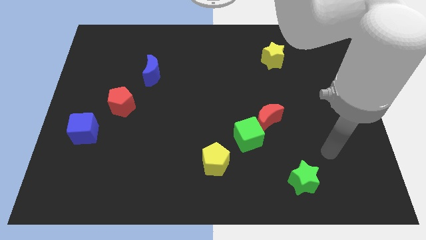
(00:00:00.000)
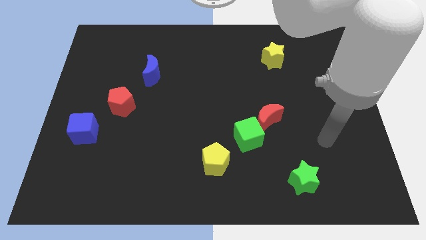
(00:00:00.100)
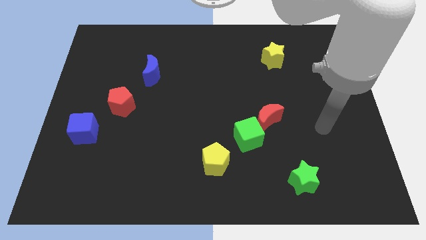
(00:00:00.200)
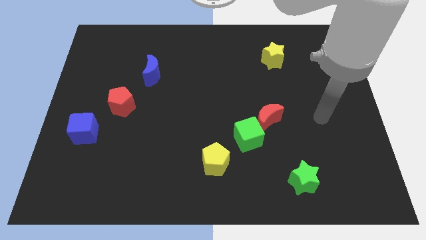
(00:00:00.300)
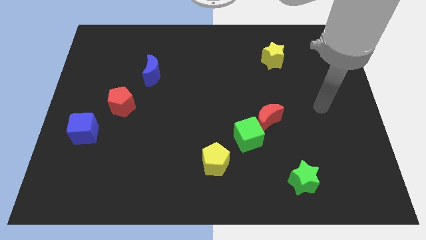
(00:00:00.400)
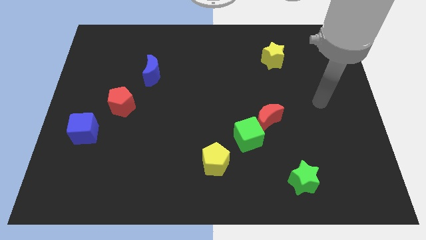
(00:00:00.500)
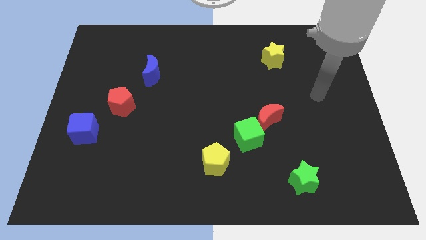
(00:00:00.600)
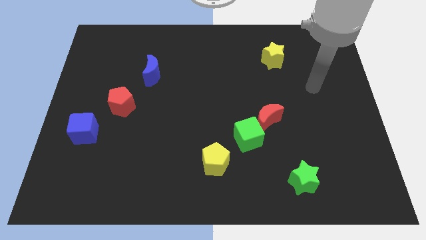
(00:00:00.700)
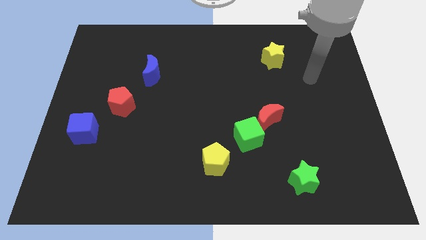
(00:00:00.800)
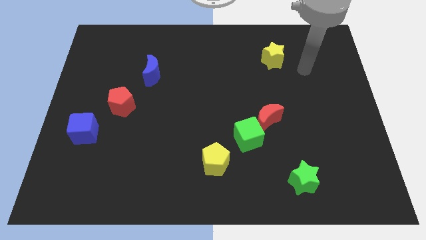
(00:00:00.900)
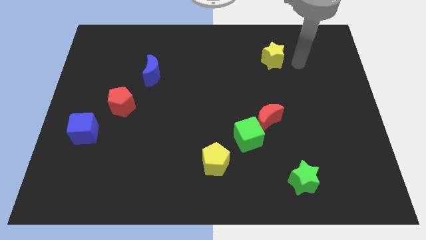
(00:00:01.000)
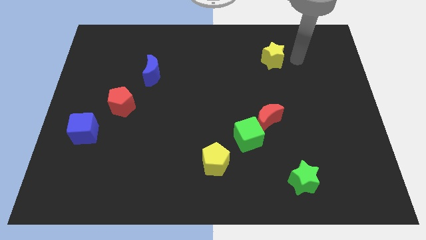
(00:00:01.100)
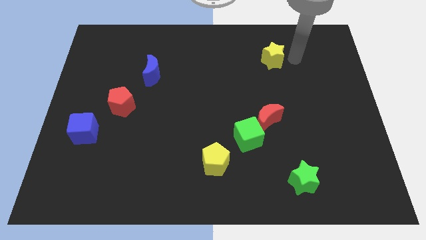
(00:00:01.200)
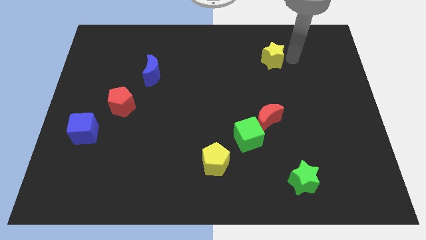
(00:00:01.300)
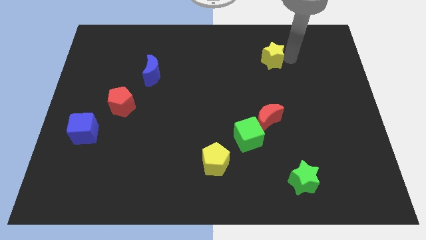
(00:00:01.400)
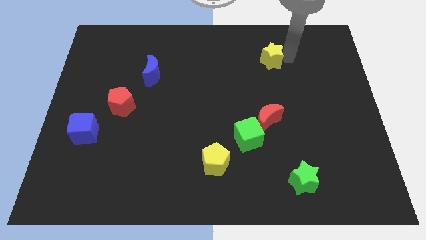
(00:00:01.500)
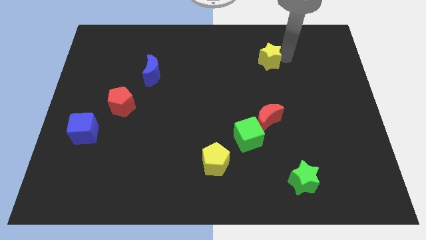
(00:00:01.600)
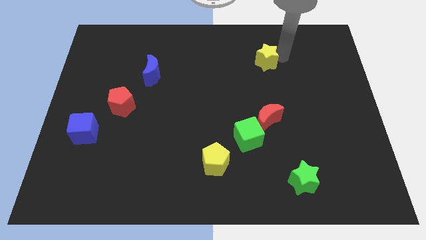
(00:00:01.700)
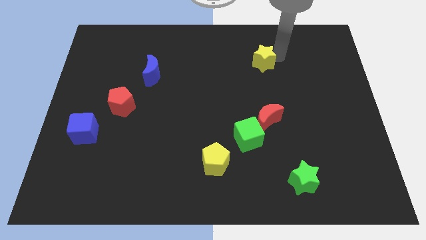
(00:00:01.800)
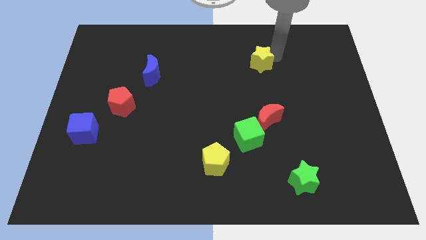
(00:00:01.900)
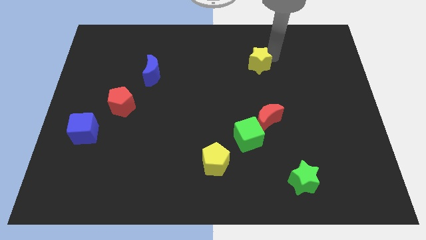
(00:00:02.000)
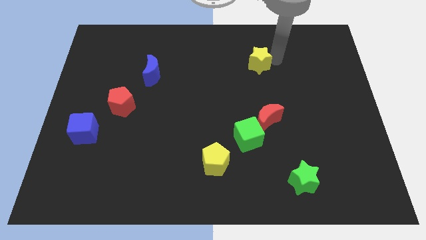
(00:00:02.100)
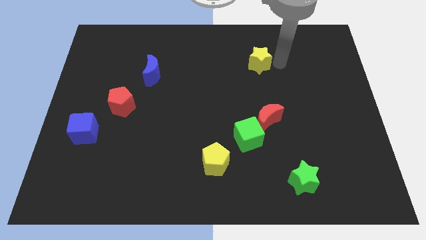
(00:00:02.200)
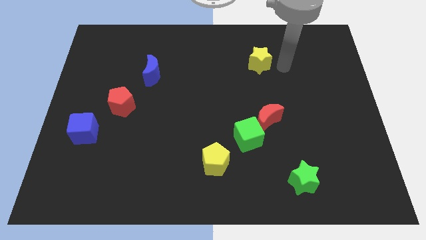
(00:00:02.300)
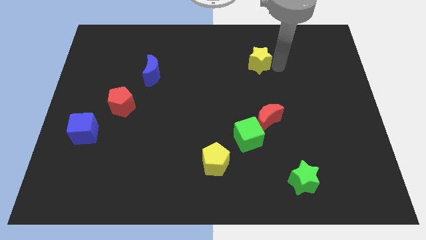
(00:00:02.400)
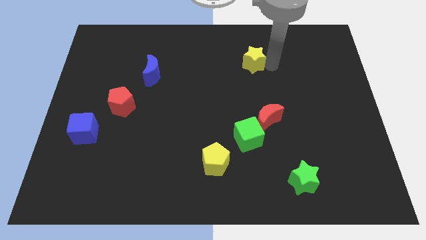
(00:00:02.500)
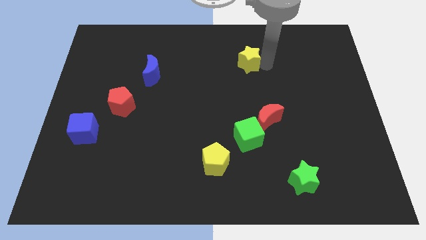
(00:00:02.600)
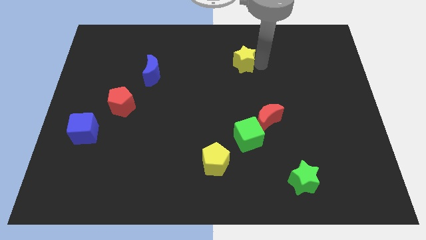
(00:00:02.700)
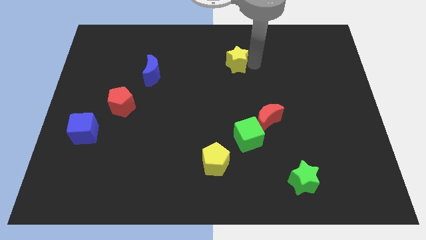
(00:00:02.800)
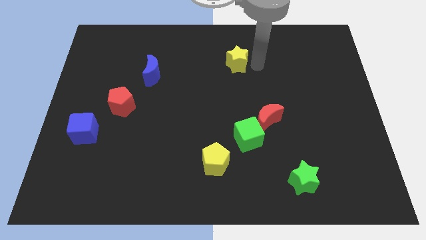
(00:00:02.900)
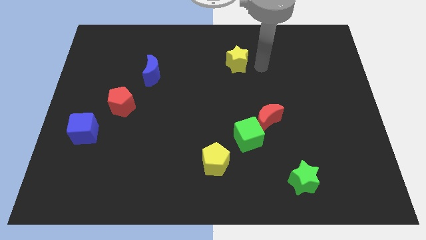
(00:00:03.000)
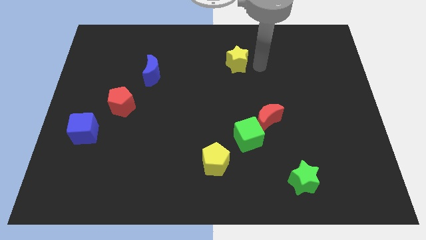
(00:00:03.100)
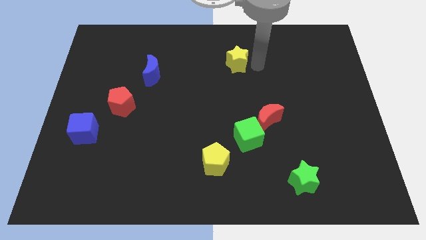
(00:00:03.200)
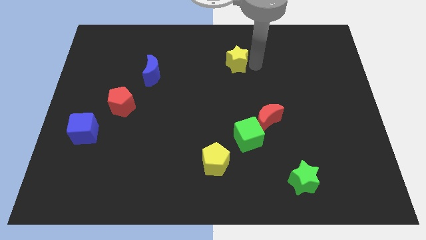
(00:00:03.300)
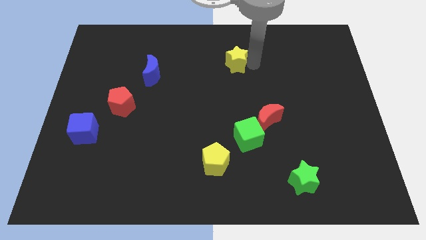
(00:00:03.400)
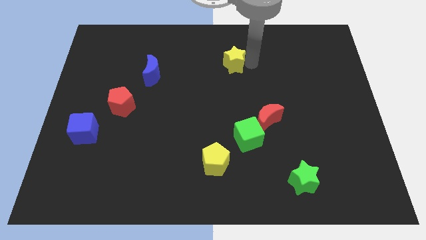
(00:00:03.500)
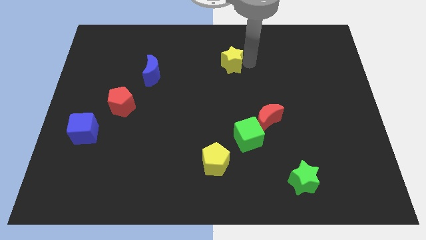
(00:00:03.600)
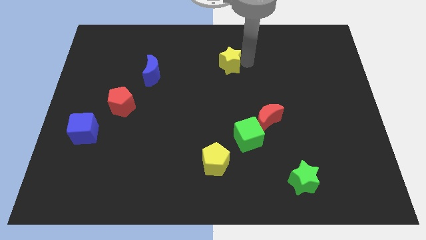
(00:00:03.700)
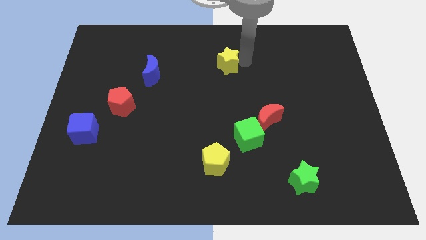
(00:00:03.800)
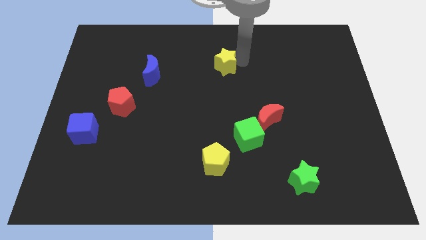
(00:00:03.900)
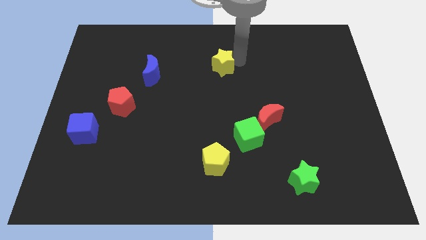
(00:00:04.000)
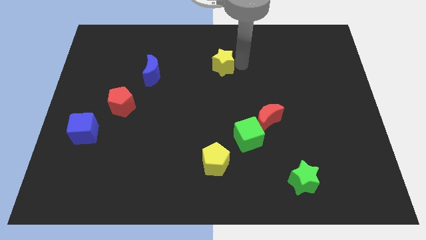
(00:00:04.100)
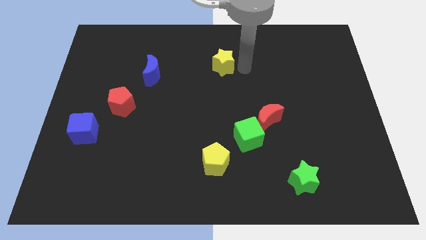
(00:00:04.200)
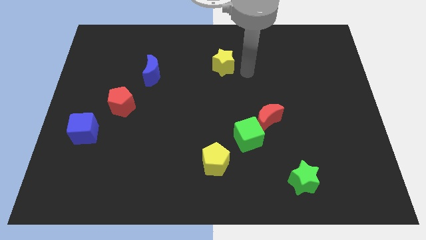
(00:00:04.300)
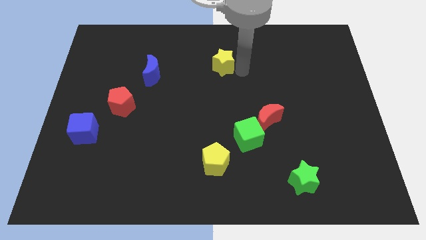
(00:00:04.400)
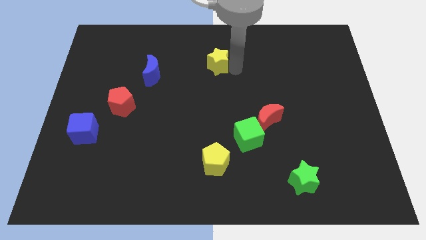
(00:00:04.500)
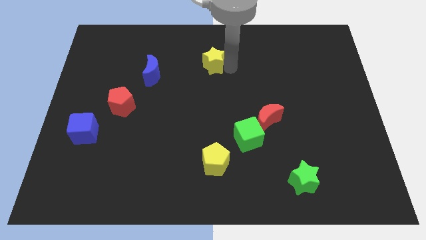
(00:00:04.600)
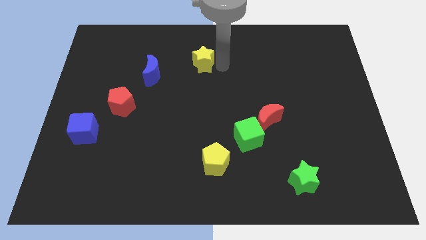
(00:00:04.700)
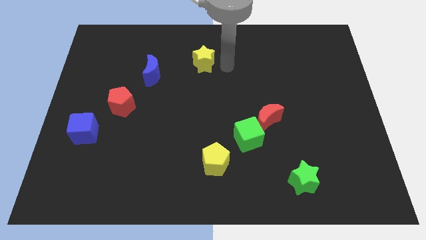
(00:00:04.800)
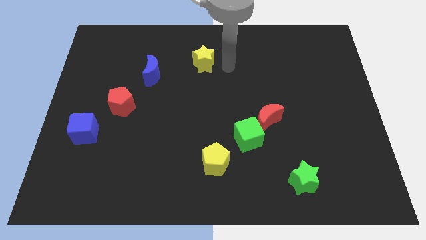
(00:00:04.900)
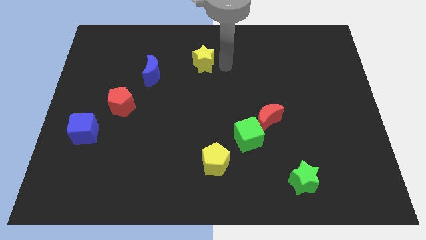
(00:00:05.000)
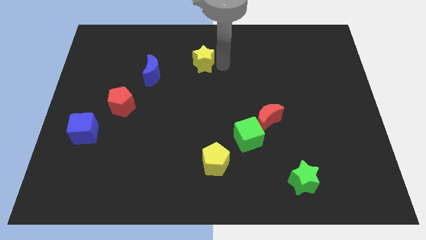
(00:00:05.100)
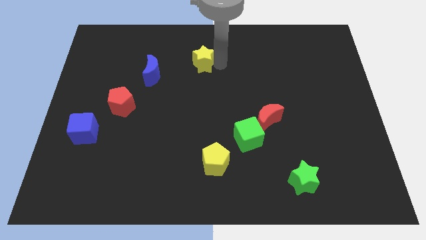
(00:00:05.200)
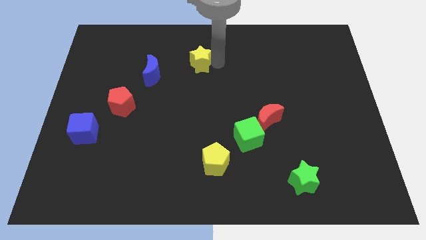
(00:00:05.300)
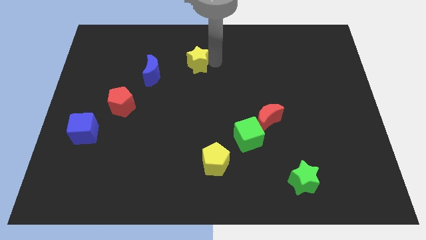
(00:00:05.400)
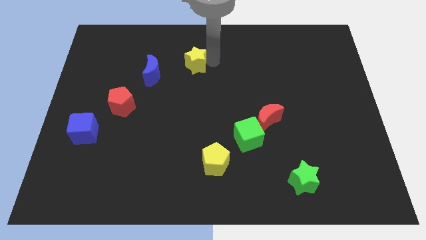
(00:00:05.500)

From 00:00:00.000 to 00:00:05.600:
slide the yellow star to the left

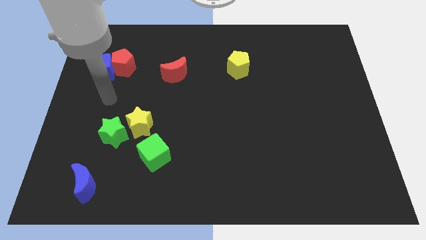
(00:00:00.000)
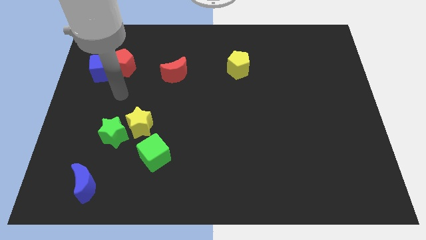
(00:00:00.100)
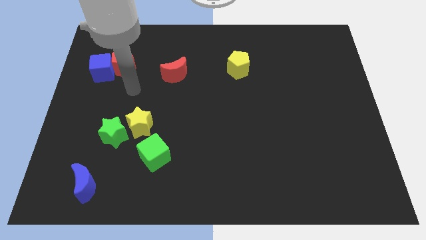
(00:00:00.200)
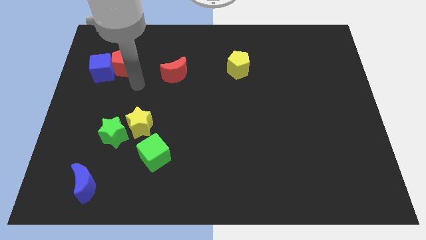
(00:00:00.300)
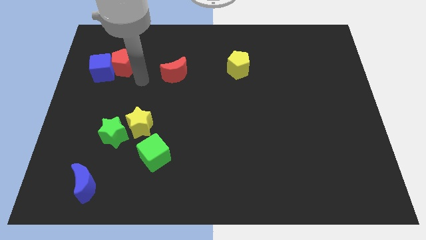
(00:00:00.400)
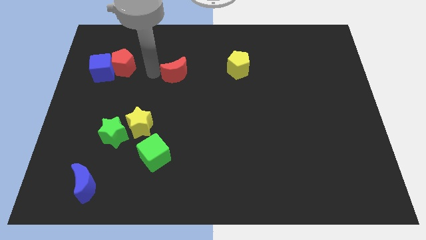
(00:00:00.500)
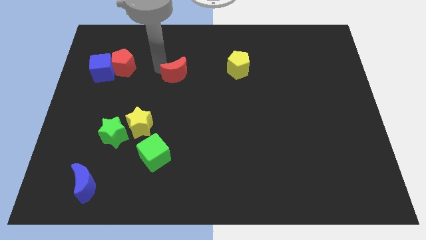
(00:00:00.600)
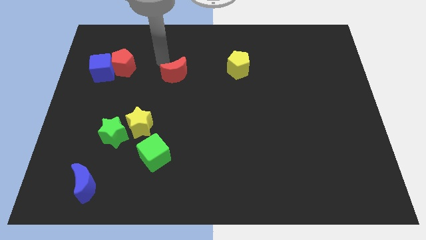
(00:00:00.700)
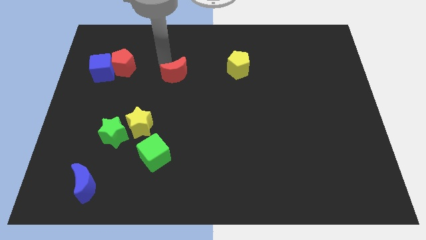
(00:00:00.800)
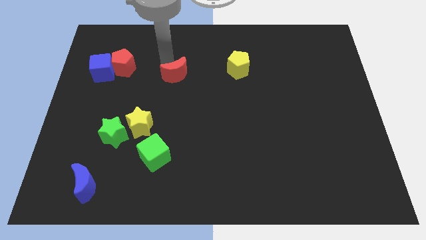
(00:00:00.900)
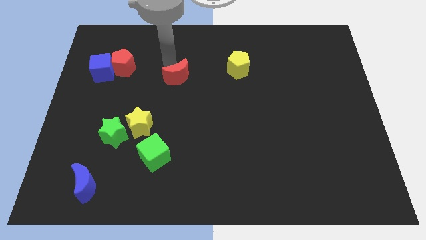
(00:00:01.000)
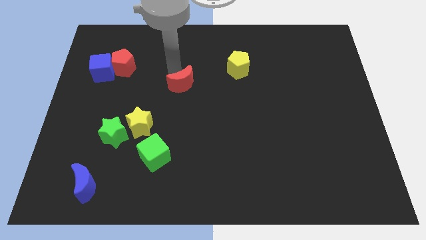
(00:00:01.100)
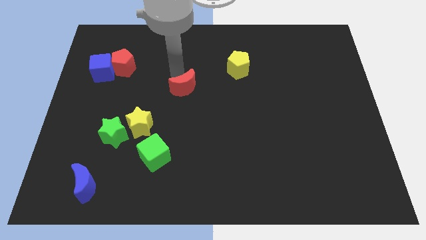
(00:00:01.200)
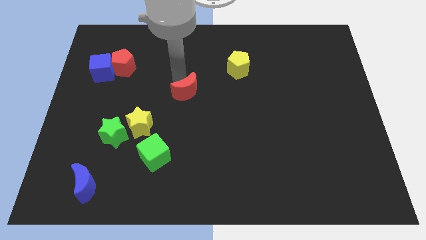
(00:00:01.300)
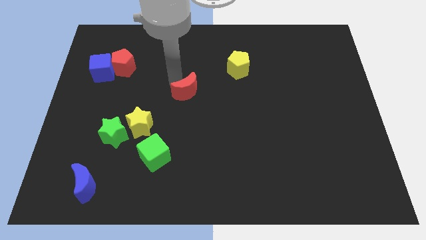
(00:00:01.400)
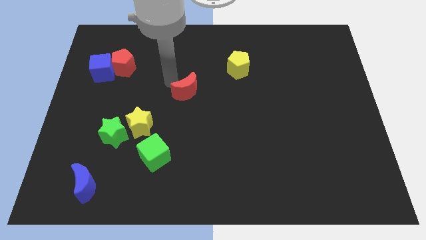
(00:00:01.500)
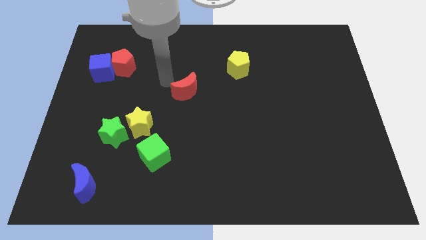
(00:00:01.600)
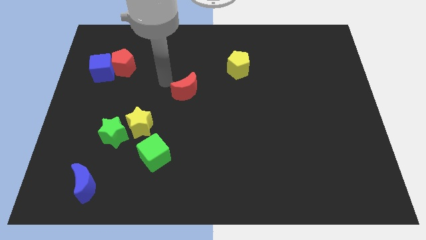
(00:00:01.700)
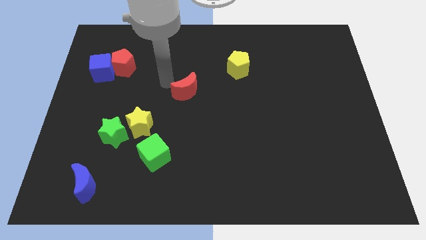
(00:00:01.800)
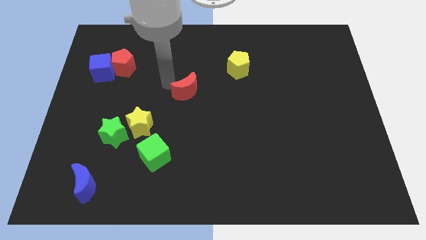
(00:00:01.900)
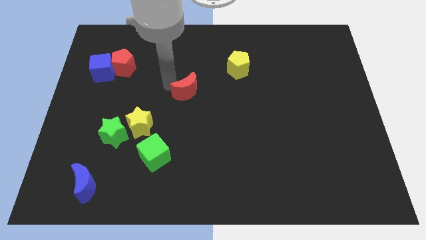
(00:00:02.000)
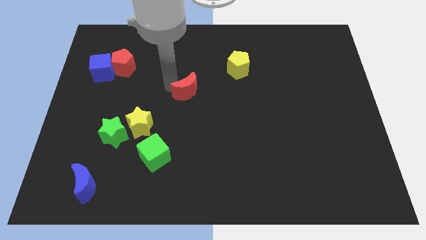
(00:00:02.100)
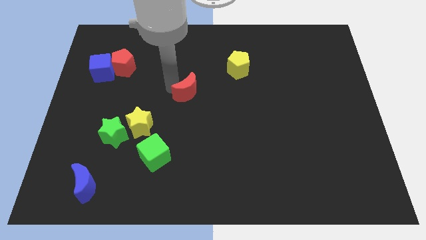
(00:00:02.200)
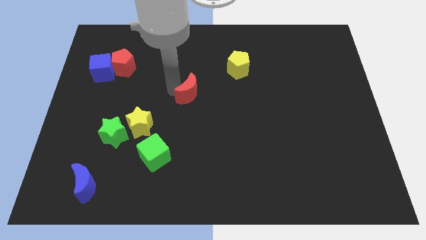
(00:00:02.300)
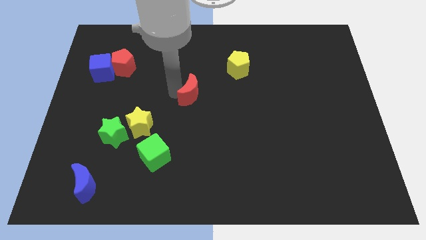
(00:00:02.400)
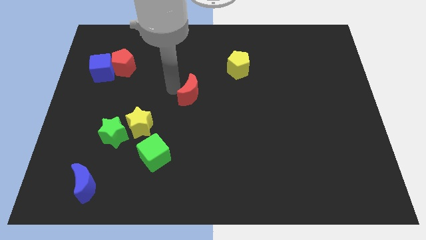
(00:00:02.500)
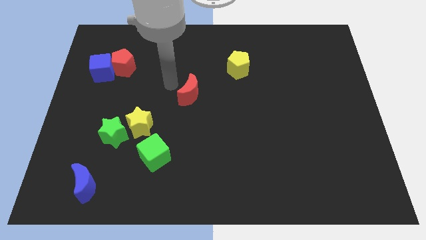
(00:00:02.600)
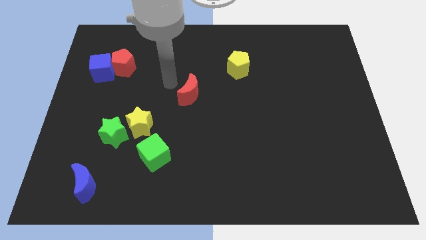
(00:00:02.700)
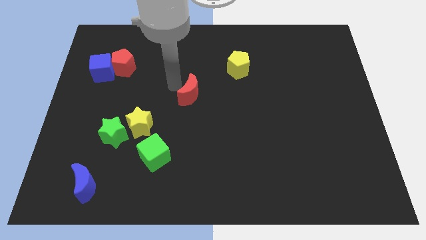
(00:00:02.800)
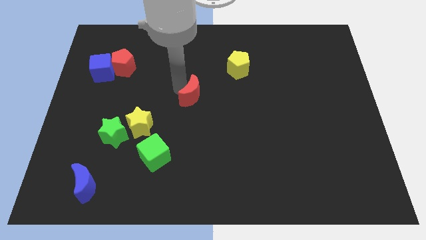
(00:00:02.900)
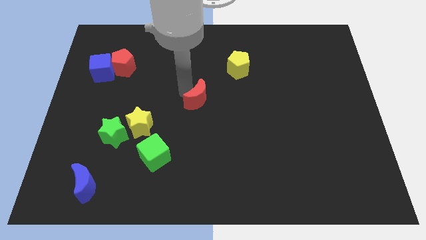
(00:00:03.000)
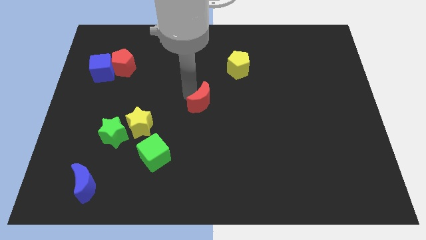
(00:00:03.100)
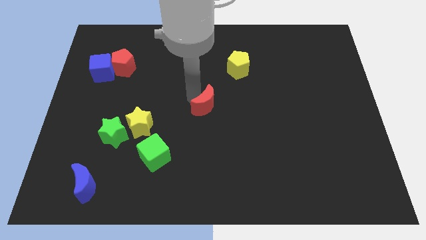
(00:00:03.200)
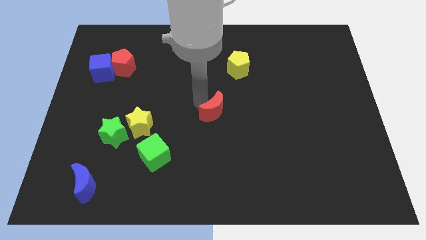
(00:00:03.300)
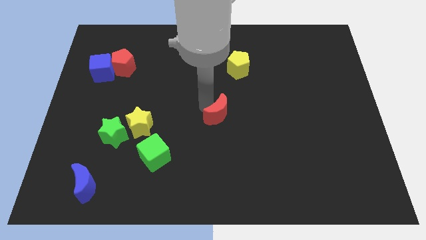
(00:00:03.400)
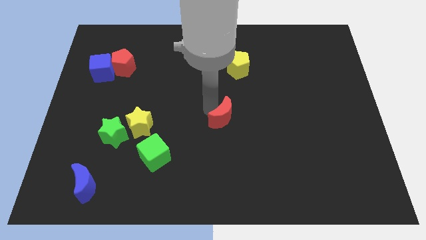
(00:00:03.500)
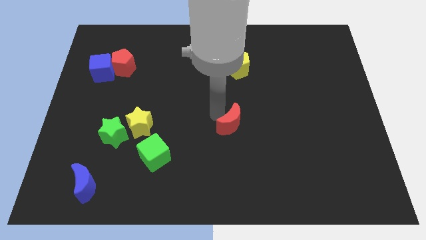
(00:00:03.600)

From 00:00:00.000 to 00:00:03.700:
move the red moon down and then right
